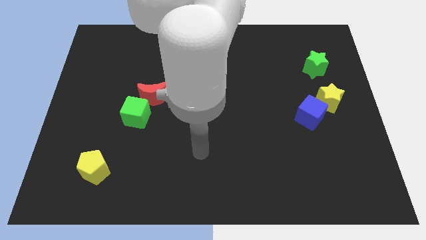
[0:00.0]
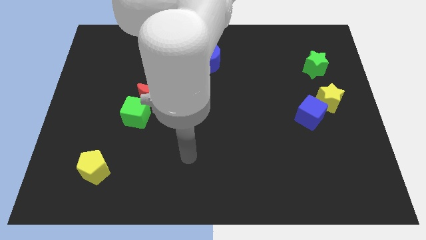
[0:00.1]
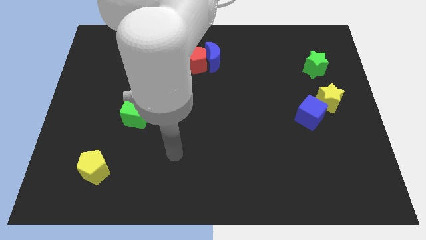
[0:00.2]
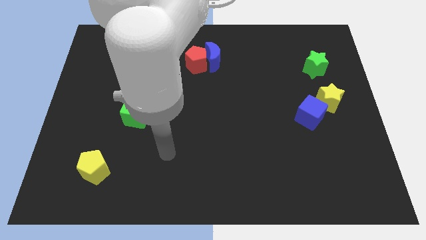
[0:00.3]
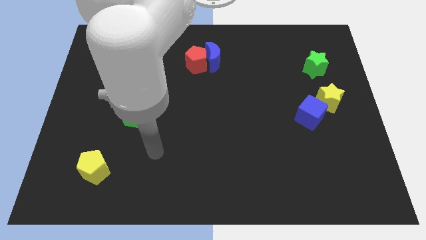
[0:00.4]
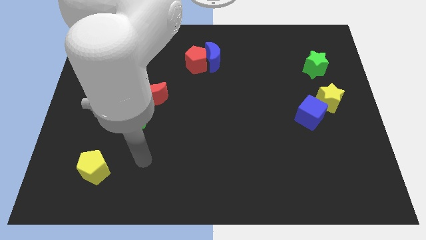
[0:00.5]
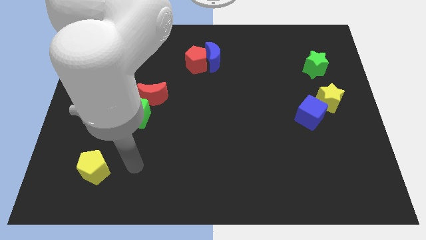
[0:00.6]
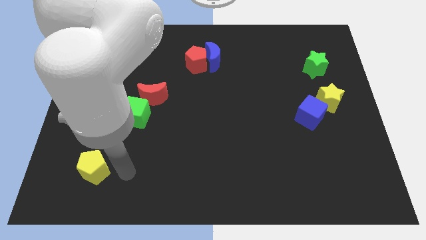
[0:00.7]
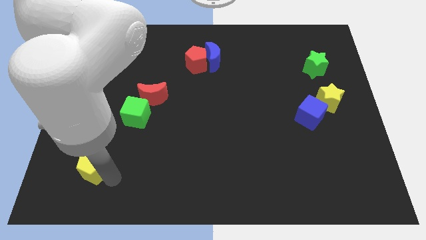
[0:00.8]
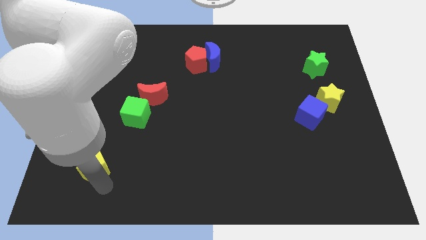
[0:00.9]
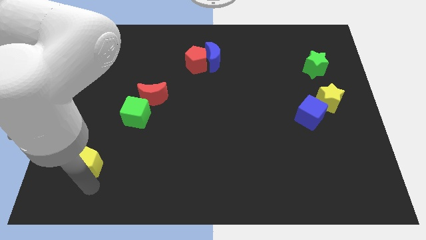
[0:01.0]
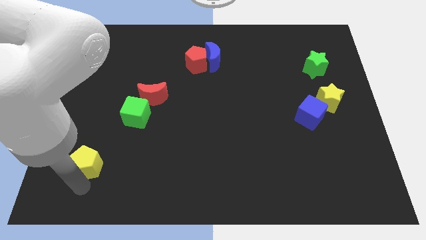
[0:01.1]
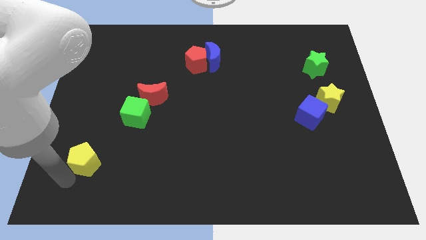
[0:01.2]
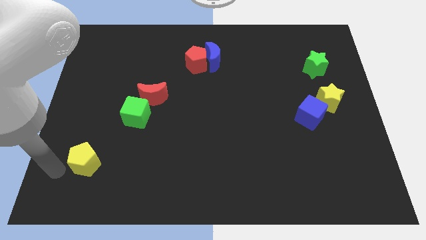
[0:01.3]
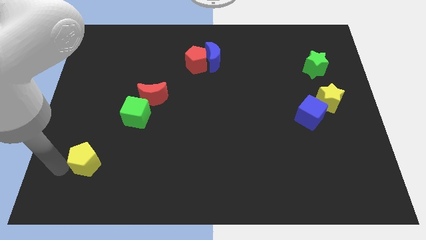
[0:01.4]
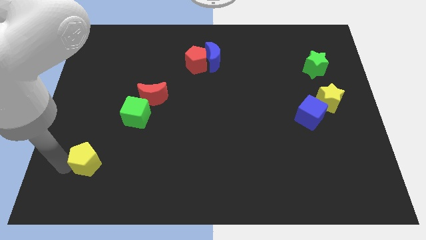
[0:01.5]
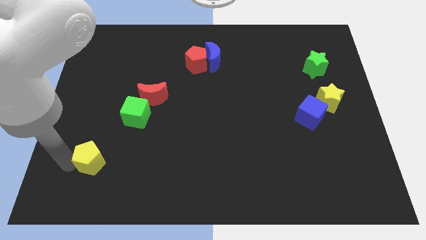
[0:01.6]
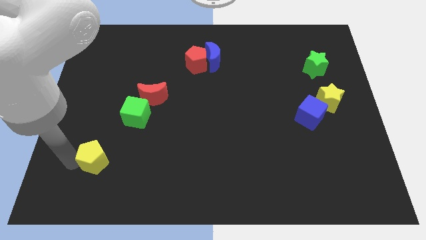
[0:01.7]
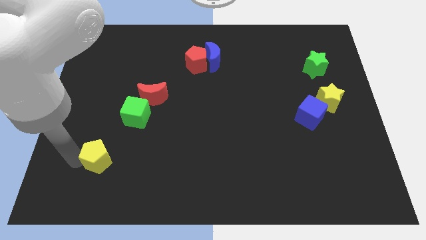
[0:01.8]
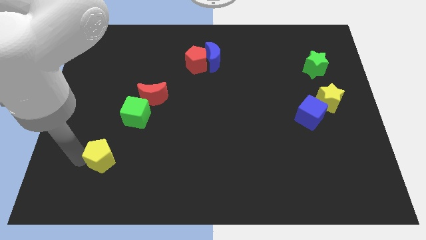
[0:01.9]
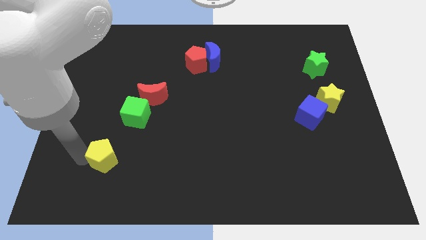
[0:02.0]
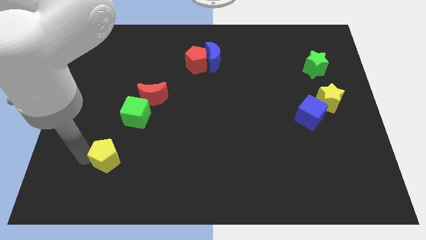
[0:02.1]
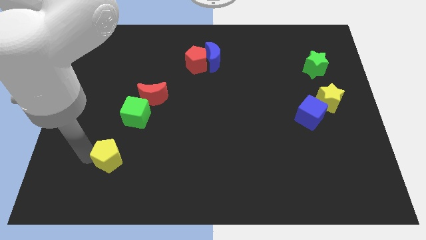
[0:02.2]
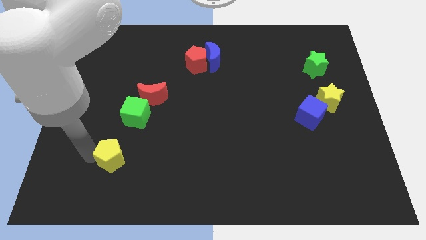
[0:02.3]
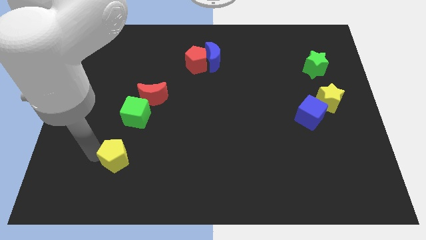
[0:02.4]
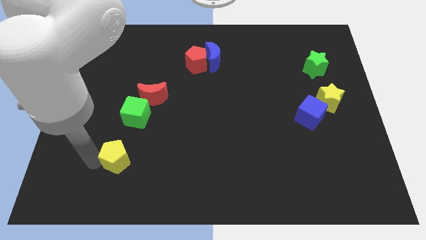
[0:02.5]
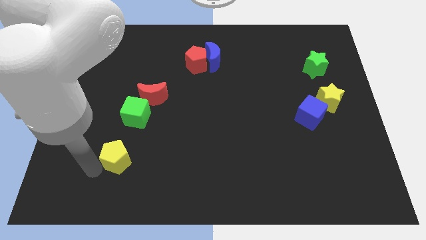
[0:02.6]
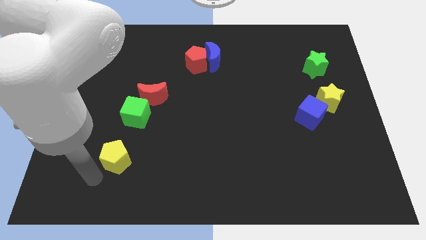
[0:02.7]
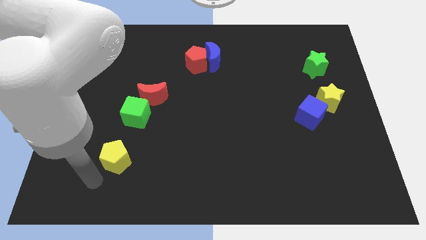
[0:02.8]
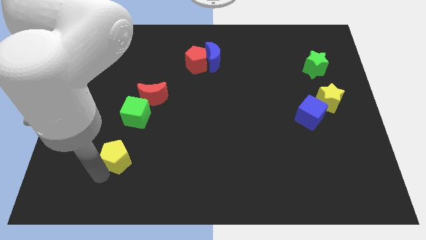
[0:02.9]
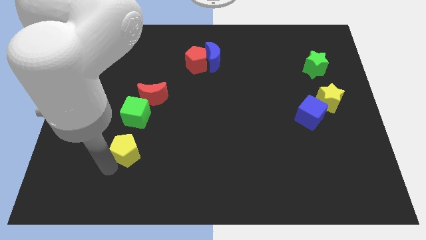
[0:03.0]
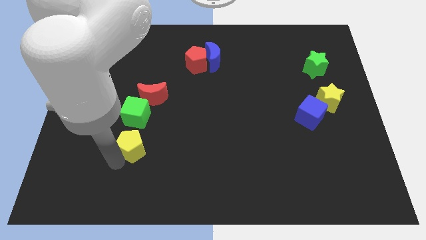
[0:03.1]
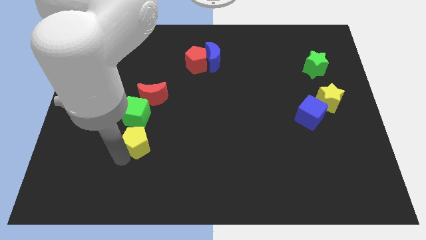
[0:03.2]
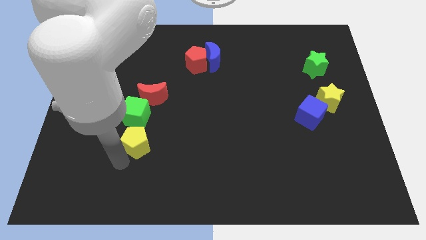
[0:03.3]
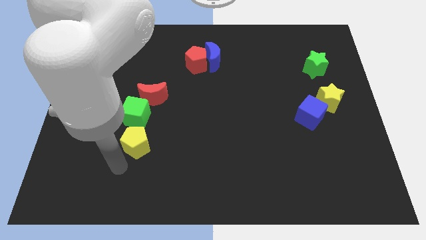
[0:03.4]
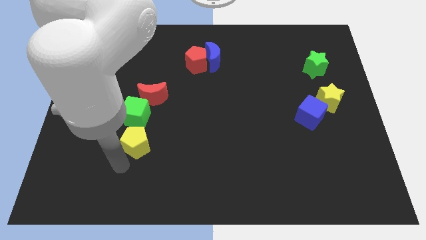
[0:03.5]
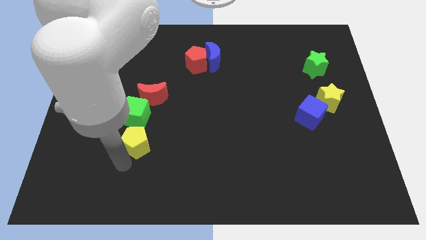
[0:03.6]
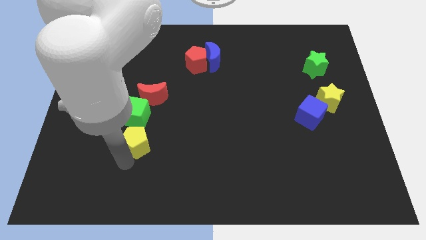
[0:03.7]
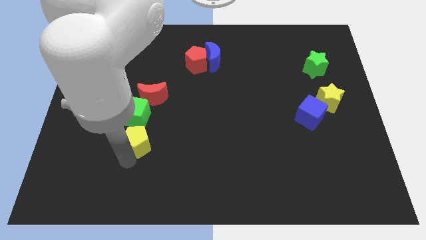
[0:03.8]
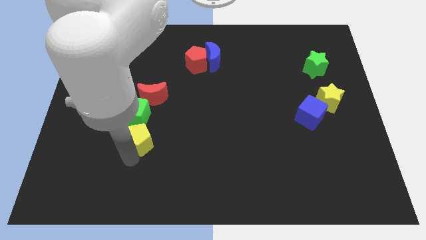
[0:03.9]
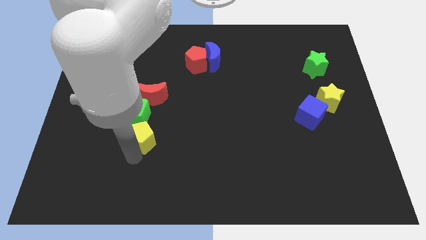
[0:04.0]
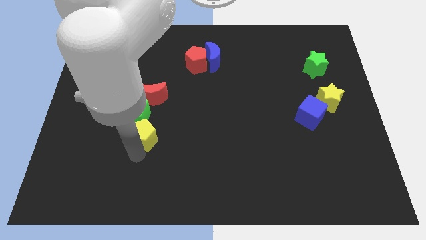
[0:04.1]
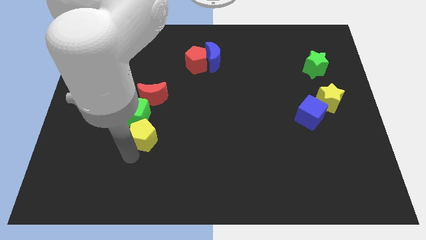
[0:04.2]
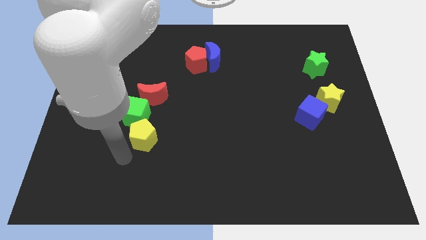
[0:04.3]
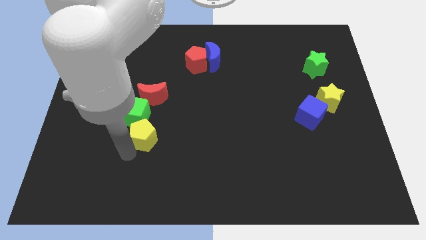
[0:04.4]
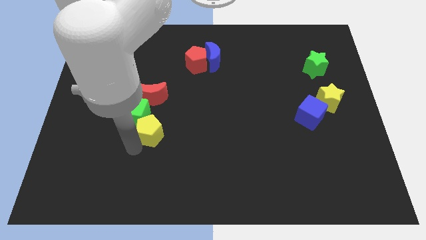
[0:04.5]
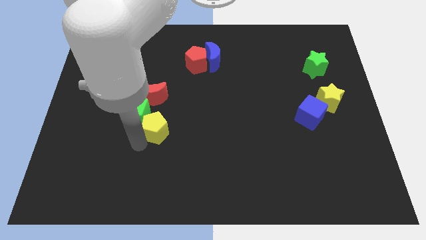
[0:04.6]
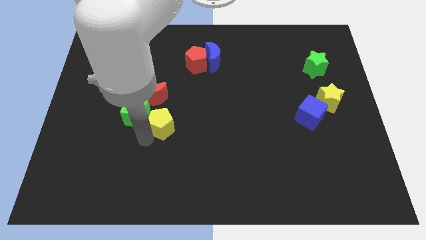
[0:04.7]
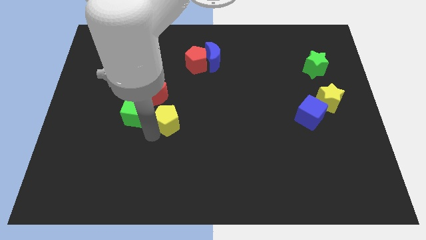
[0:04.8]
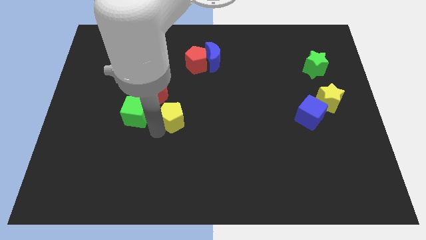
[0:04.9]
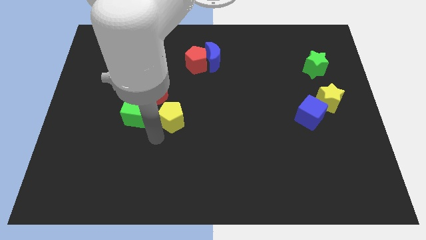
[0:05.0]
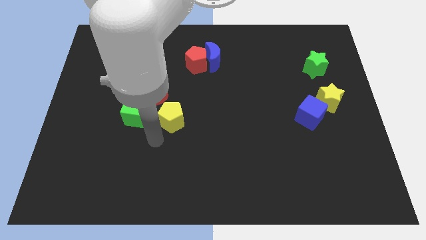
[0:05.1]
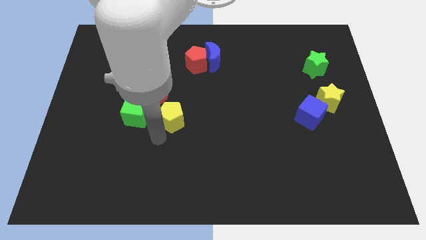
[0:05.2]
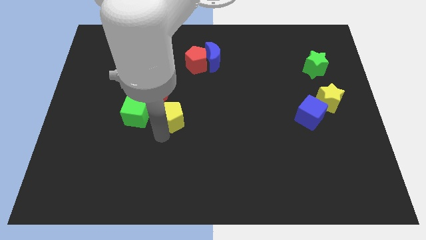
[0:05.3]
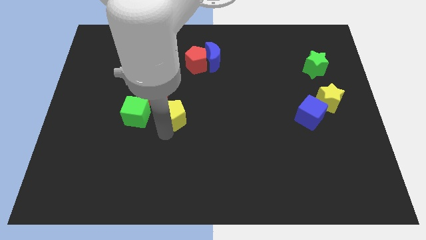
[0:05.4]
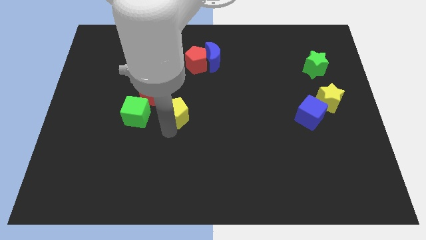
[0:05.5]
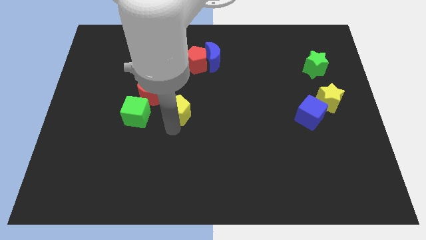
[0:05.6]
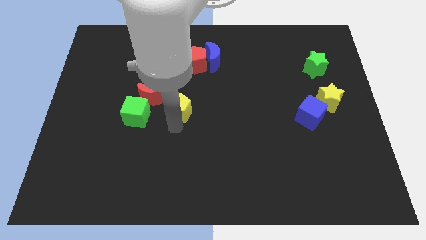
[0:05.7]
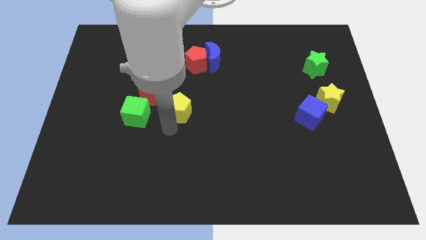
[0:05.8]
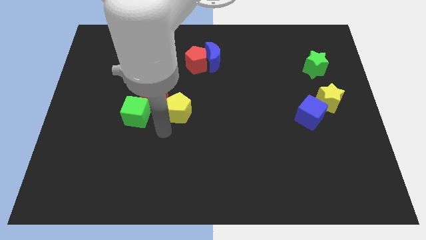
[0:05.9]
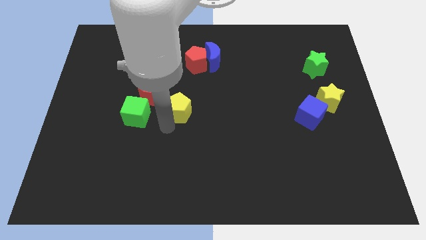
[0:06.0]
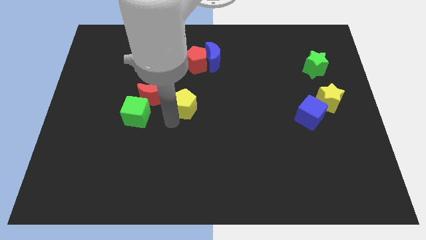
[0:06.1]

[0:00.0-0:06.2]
push the yellow pentagon below the red pentagon

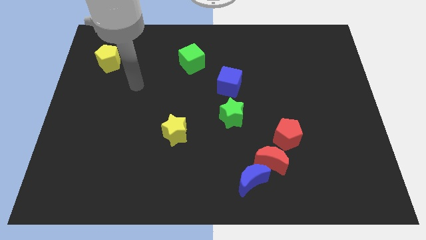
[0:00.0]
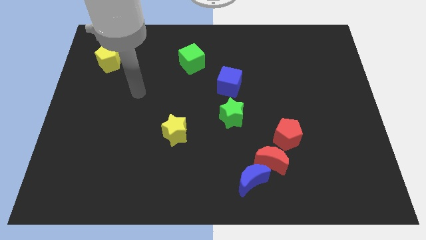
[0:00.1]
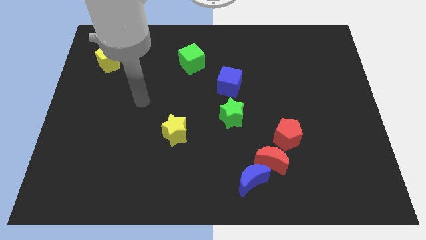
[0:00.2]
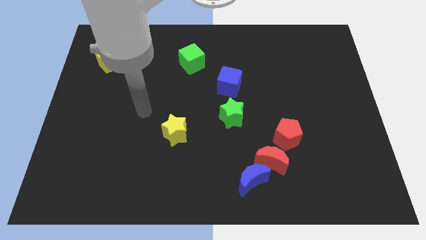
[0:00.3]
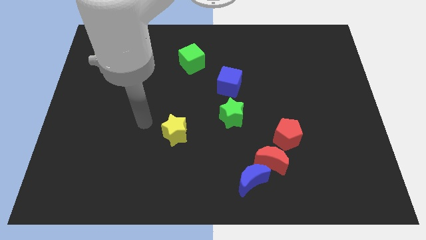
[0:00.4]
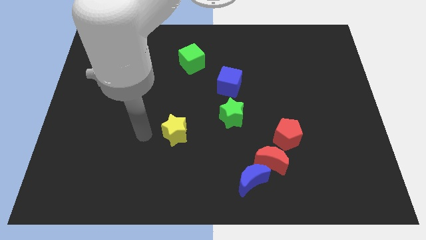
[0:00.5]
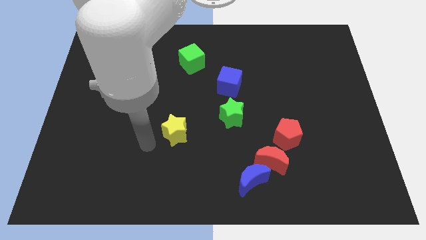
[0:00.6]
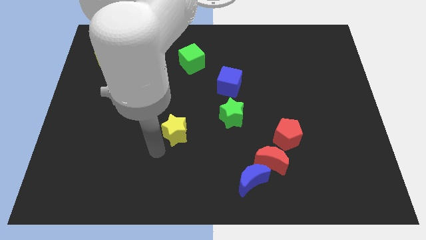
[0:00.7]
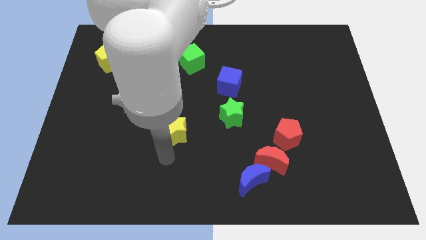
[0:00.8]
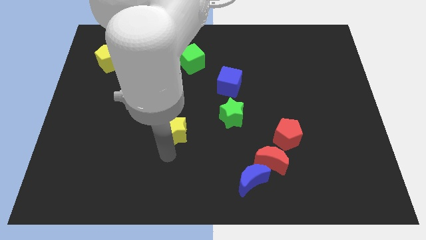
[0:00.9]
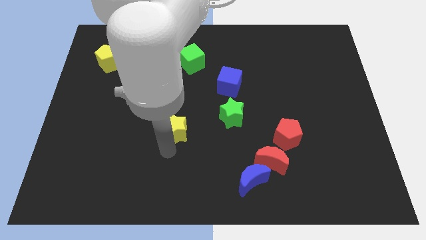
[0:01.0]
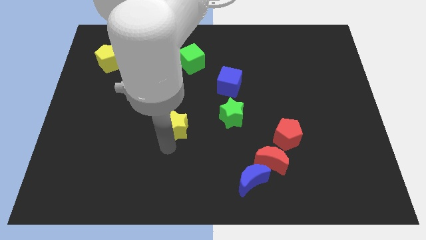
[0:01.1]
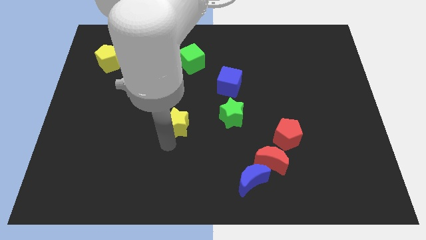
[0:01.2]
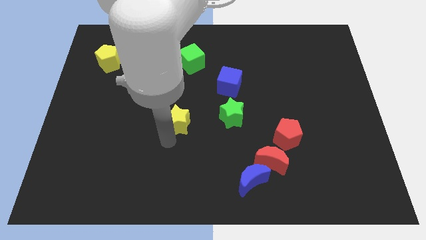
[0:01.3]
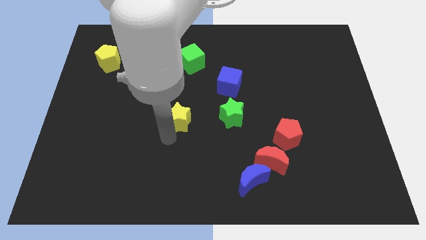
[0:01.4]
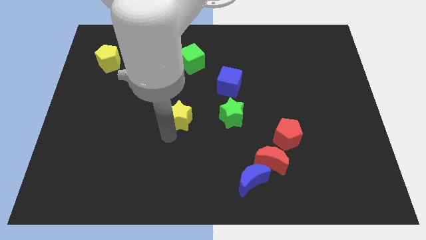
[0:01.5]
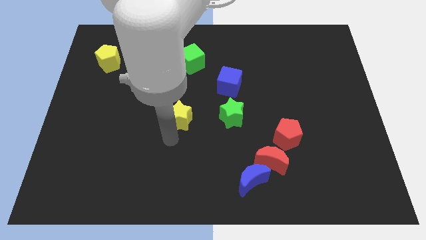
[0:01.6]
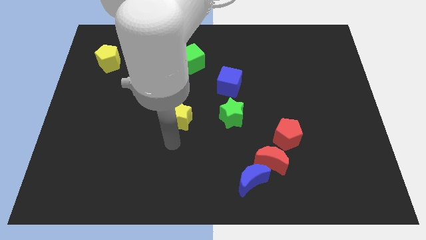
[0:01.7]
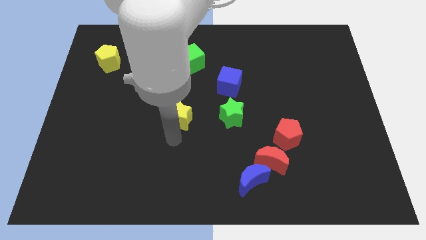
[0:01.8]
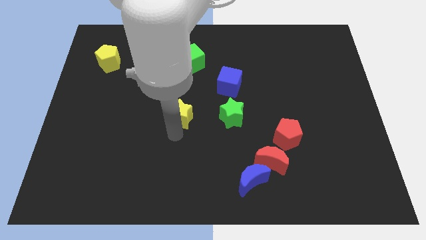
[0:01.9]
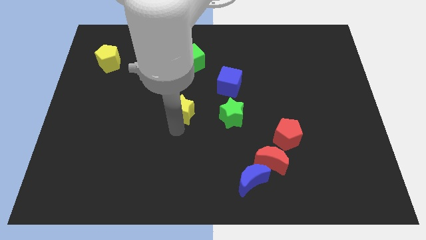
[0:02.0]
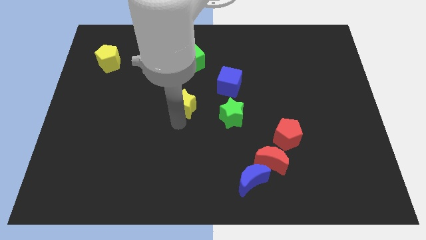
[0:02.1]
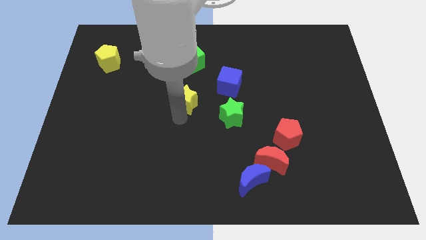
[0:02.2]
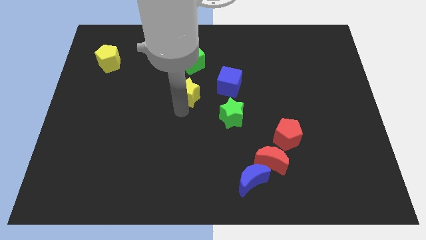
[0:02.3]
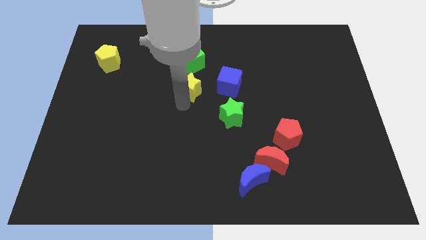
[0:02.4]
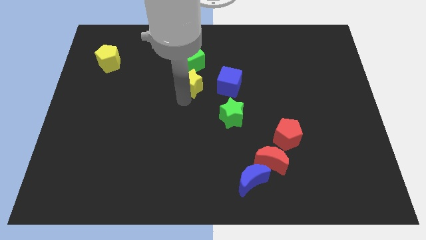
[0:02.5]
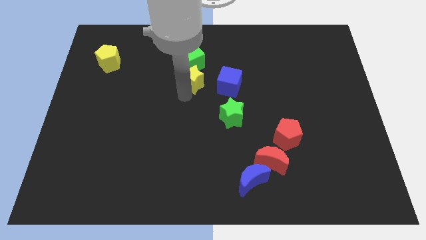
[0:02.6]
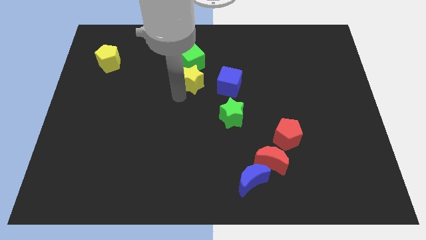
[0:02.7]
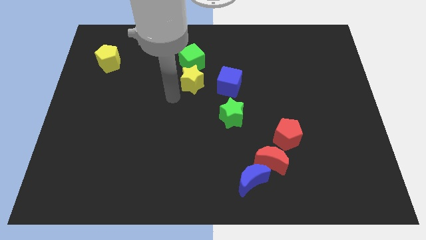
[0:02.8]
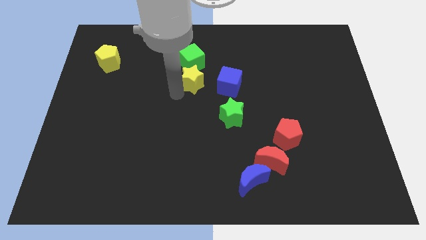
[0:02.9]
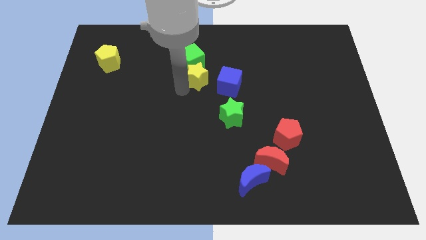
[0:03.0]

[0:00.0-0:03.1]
move the yellow star to the top left of the blue cube
